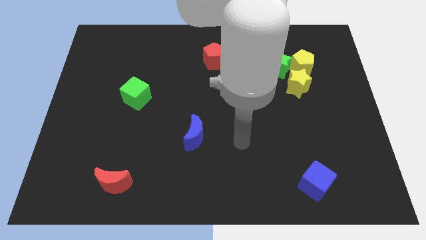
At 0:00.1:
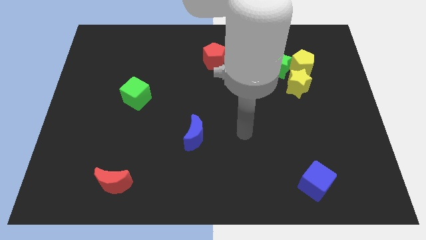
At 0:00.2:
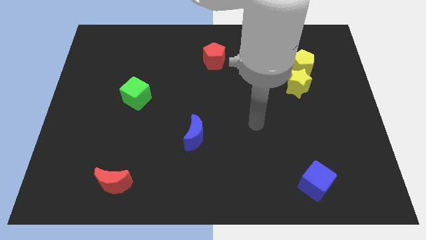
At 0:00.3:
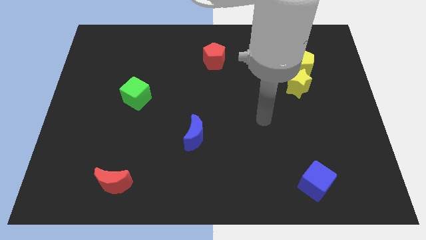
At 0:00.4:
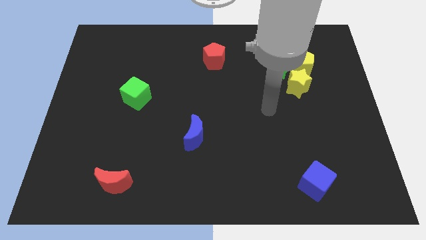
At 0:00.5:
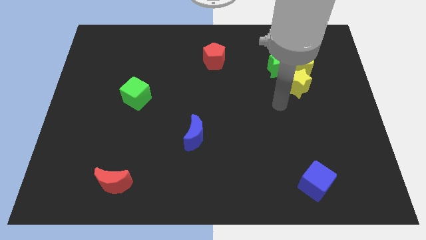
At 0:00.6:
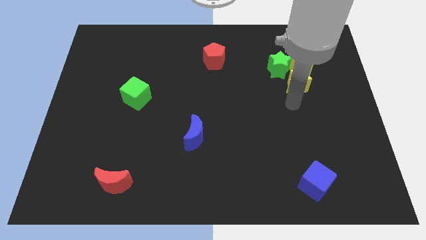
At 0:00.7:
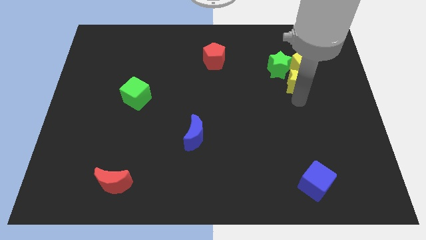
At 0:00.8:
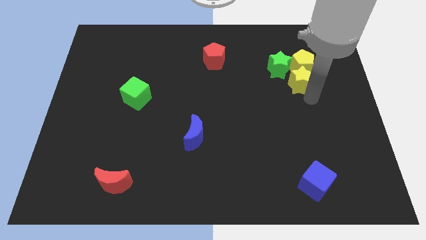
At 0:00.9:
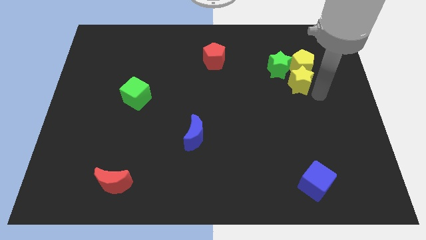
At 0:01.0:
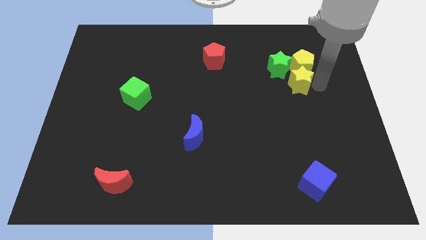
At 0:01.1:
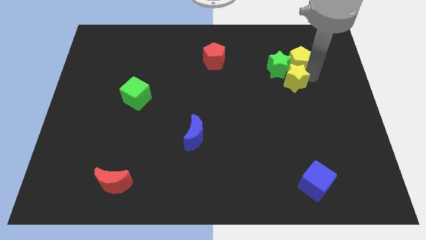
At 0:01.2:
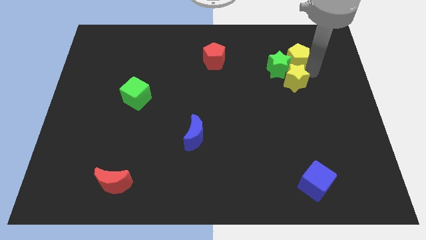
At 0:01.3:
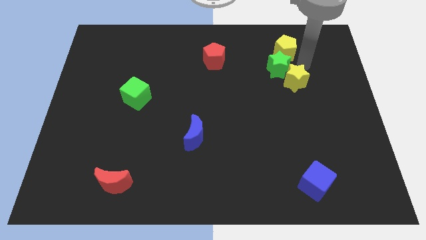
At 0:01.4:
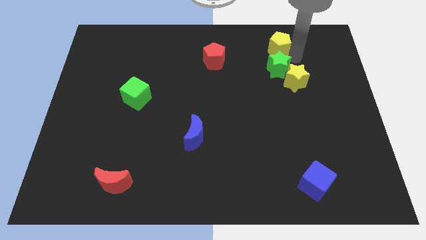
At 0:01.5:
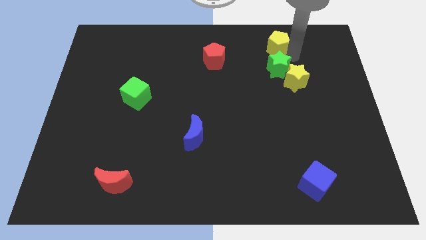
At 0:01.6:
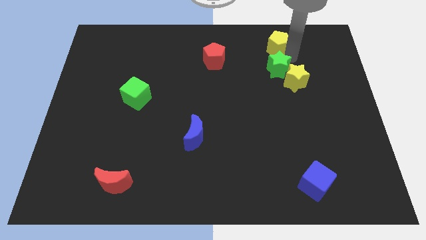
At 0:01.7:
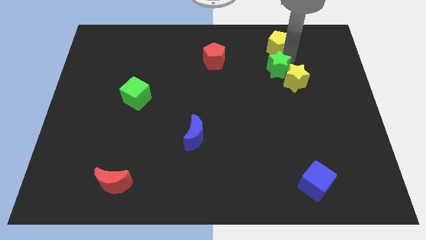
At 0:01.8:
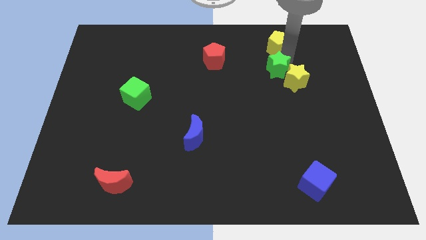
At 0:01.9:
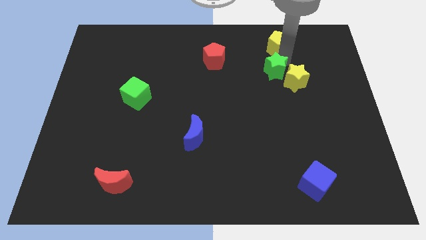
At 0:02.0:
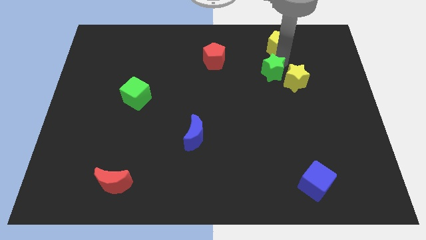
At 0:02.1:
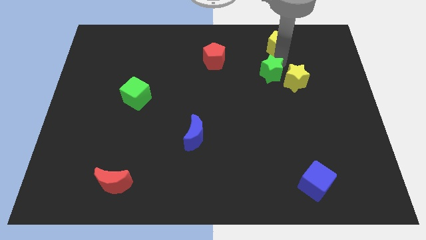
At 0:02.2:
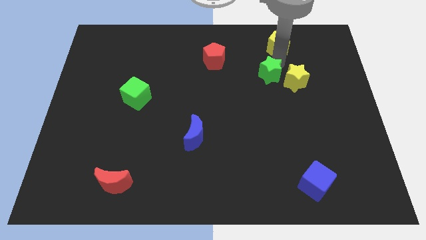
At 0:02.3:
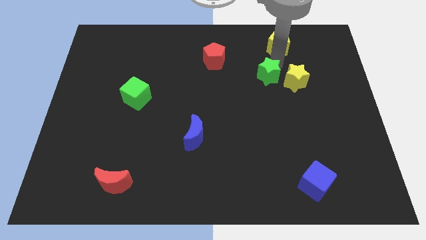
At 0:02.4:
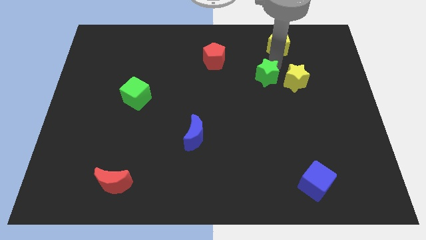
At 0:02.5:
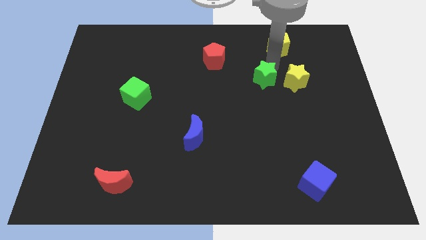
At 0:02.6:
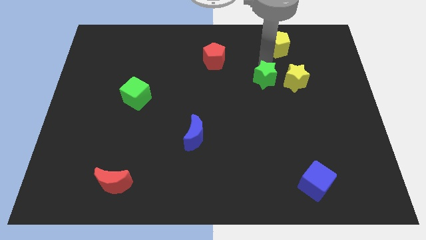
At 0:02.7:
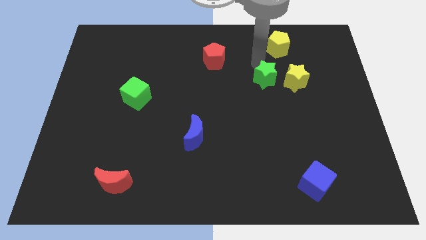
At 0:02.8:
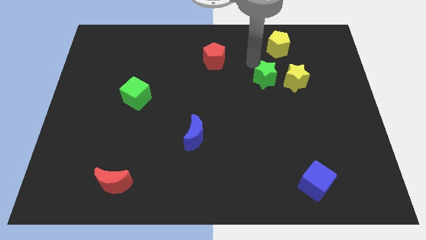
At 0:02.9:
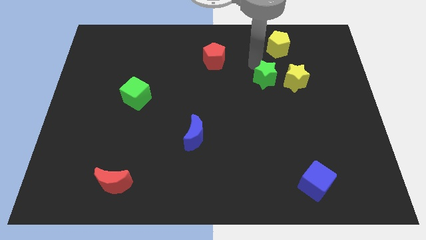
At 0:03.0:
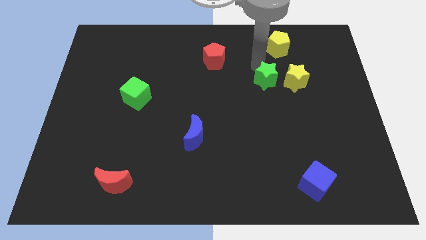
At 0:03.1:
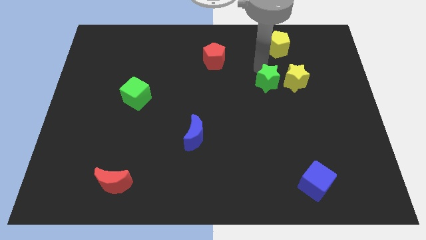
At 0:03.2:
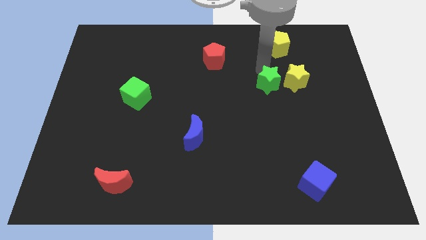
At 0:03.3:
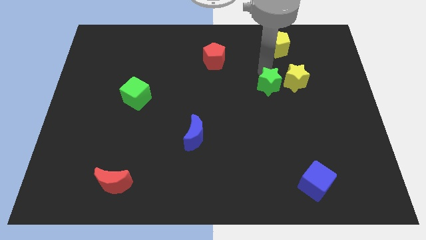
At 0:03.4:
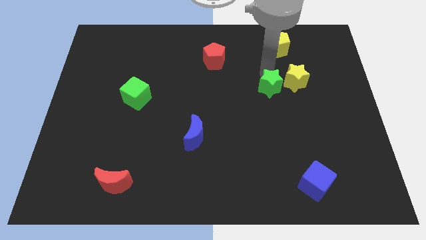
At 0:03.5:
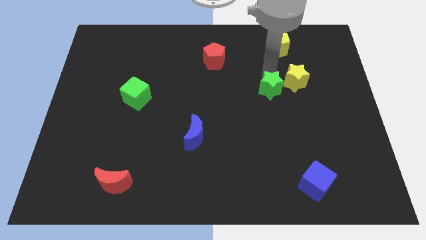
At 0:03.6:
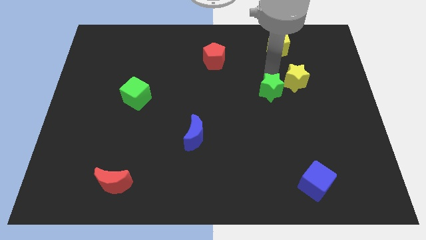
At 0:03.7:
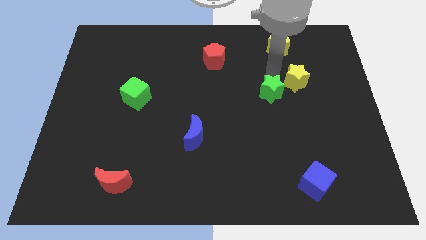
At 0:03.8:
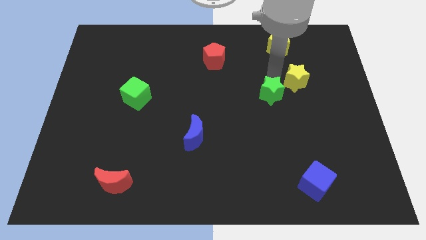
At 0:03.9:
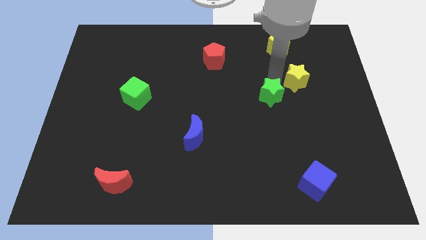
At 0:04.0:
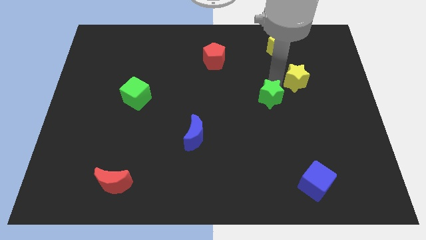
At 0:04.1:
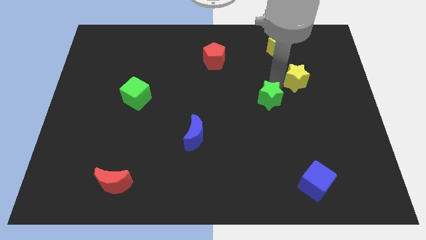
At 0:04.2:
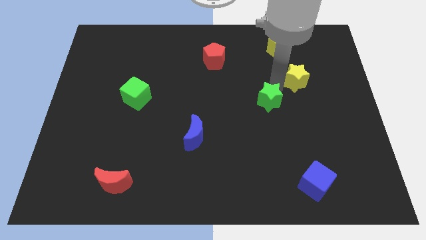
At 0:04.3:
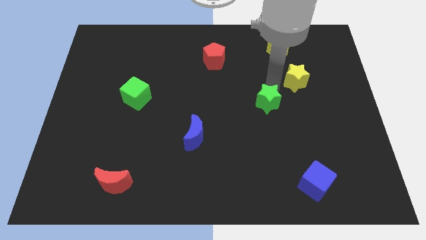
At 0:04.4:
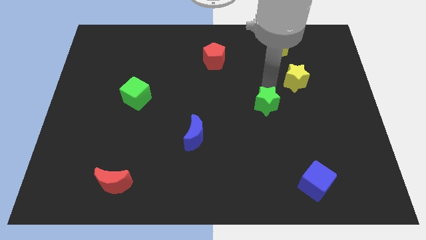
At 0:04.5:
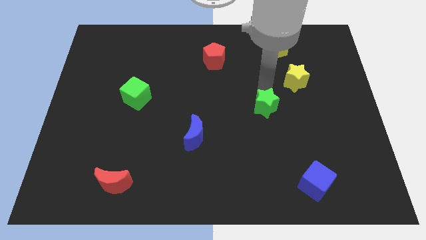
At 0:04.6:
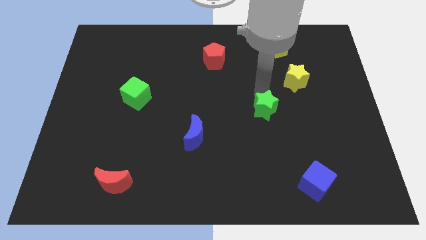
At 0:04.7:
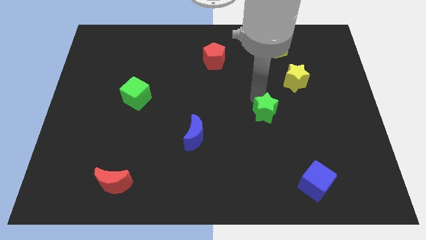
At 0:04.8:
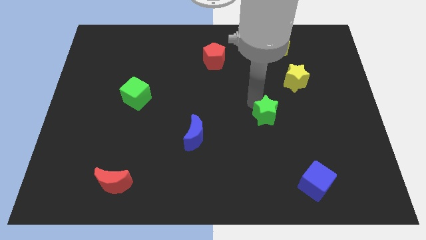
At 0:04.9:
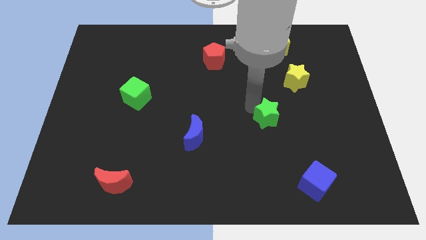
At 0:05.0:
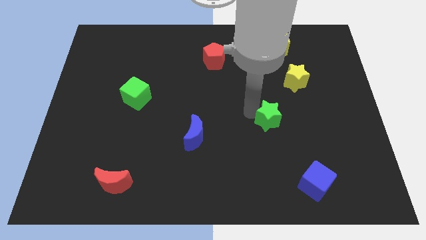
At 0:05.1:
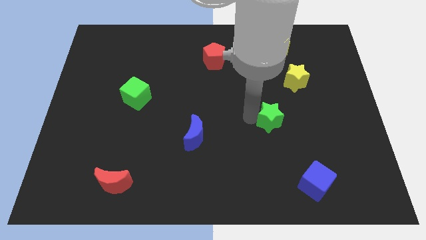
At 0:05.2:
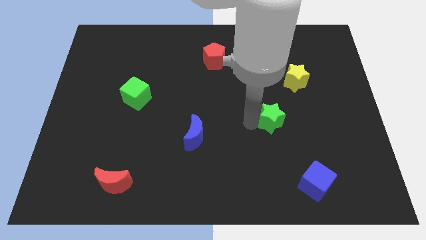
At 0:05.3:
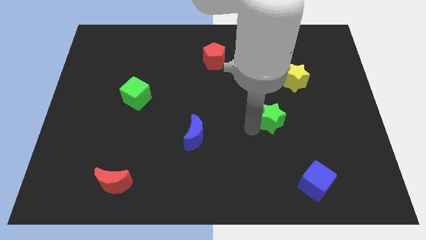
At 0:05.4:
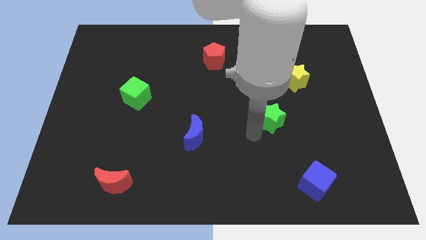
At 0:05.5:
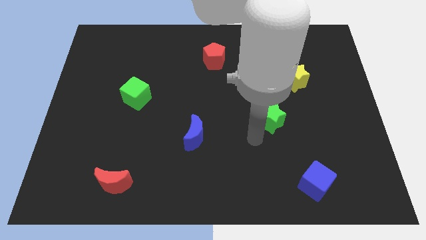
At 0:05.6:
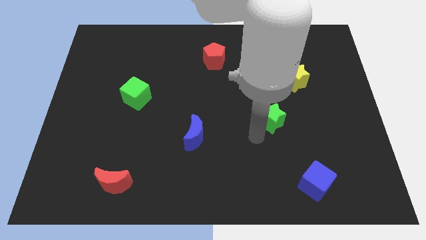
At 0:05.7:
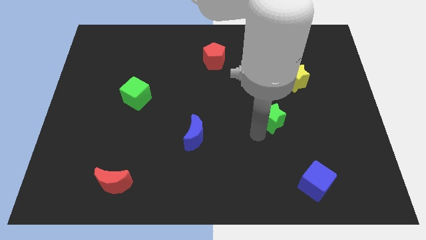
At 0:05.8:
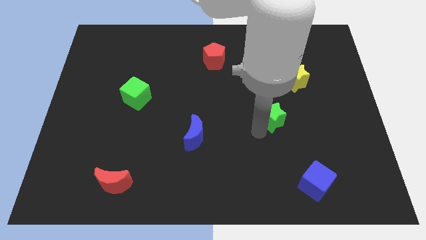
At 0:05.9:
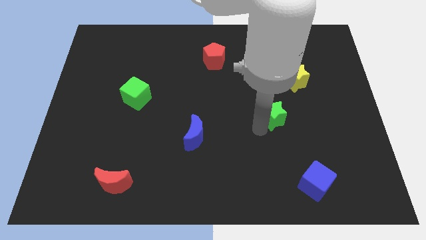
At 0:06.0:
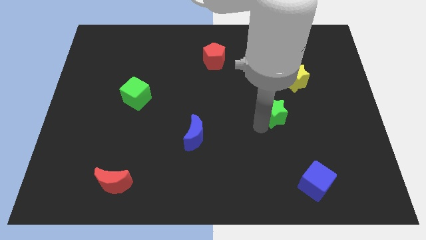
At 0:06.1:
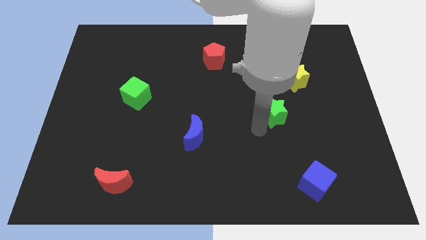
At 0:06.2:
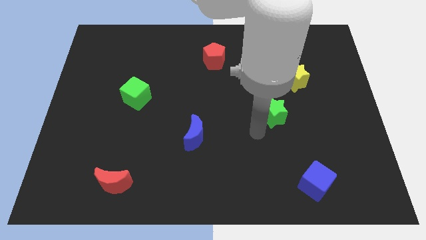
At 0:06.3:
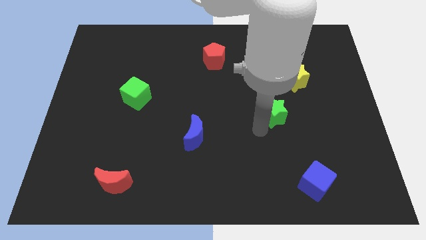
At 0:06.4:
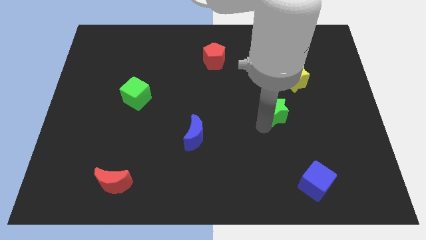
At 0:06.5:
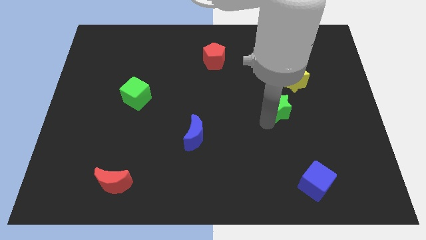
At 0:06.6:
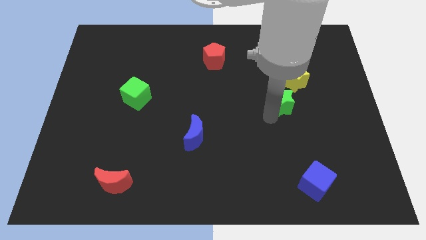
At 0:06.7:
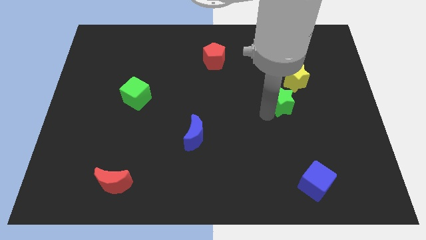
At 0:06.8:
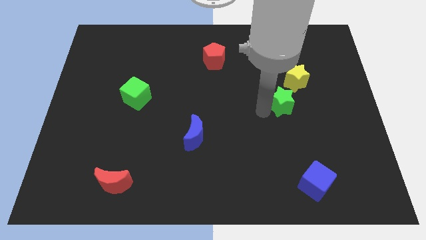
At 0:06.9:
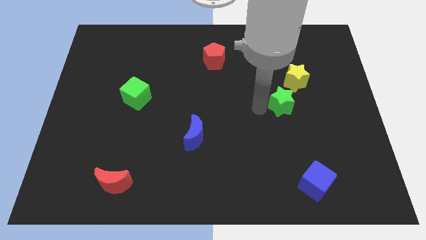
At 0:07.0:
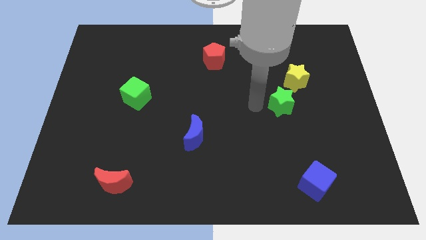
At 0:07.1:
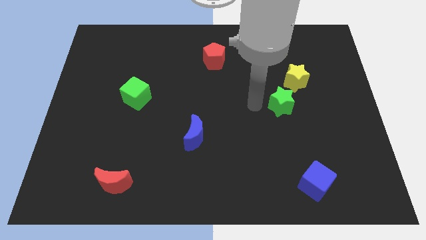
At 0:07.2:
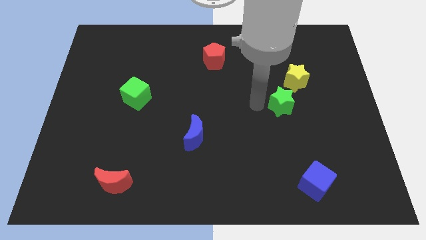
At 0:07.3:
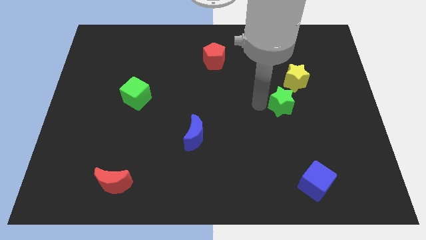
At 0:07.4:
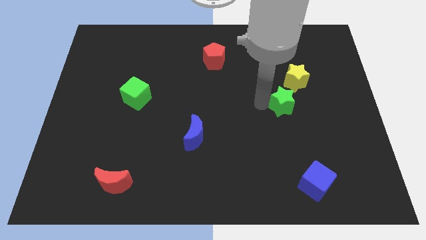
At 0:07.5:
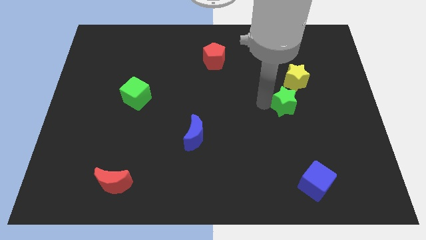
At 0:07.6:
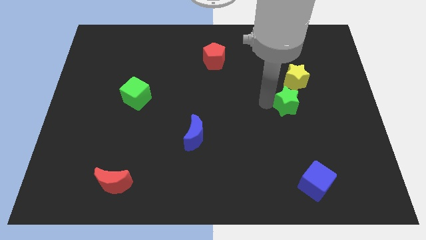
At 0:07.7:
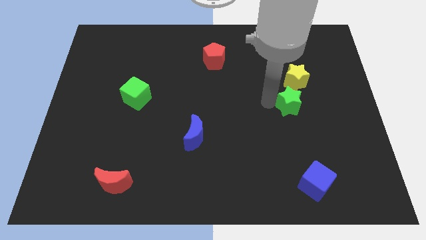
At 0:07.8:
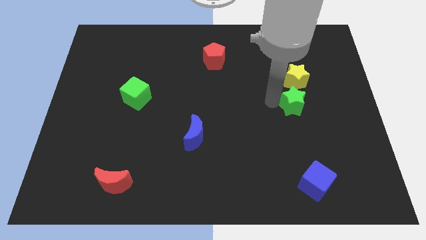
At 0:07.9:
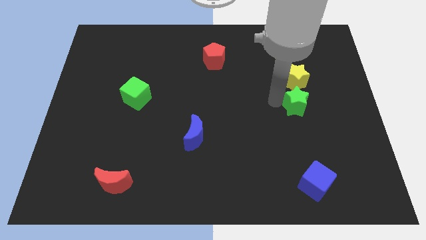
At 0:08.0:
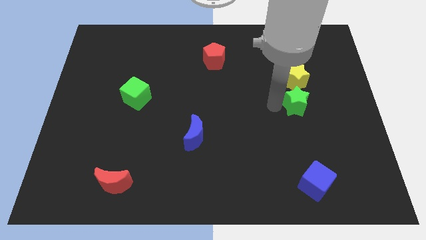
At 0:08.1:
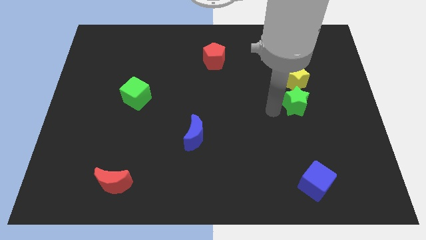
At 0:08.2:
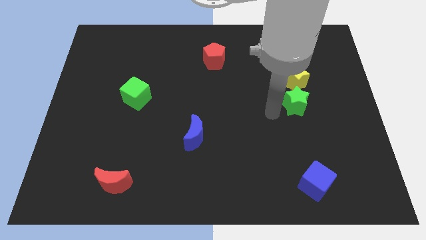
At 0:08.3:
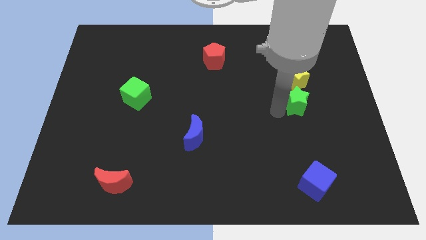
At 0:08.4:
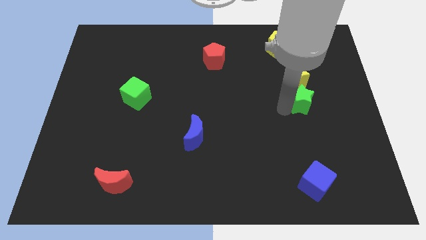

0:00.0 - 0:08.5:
push the green star to the bottom right of the yellow star
